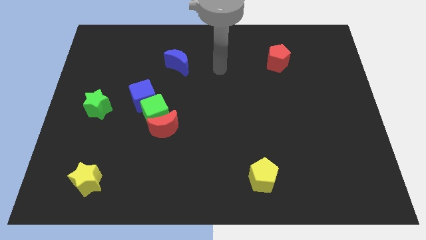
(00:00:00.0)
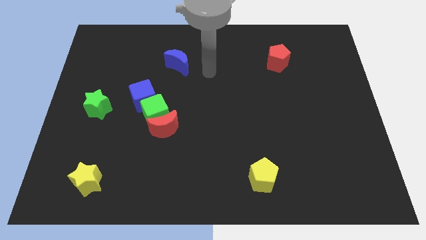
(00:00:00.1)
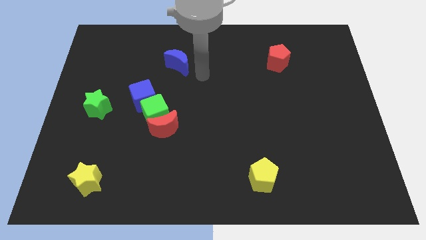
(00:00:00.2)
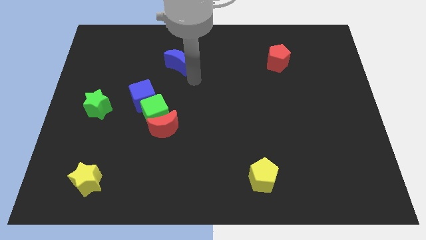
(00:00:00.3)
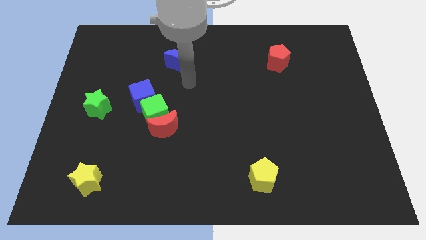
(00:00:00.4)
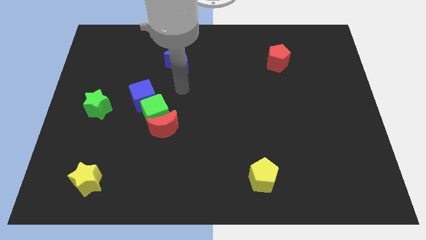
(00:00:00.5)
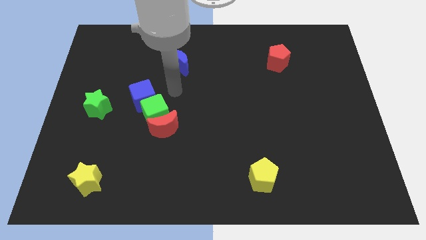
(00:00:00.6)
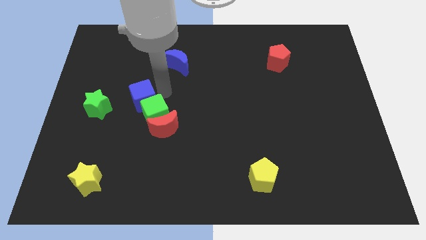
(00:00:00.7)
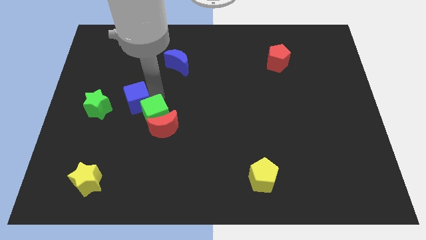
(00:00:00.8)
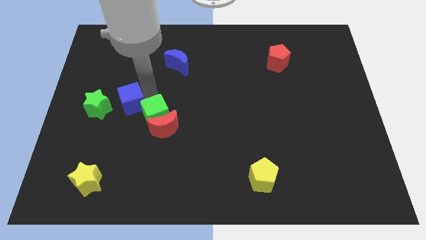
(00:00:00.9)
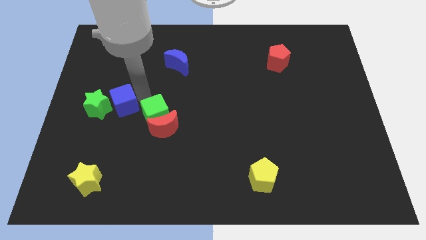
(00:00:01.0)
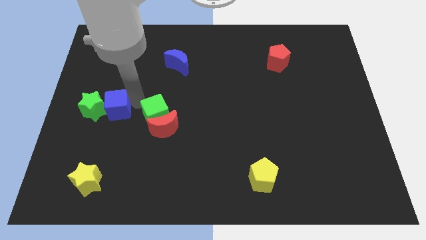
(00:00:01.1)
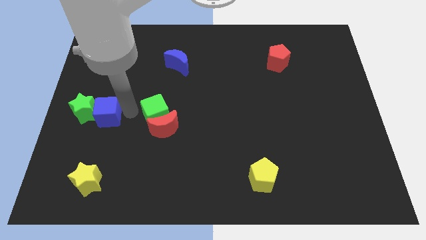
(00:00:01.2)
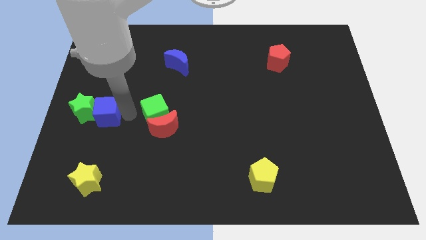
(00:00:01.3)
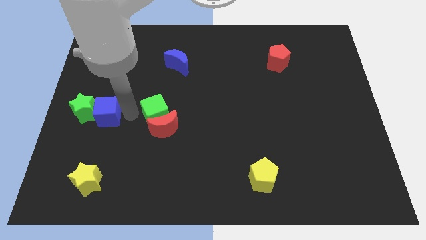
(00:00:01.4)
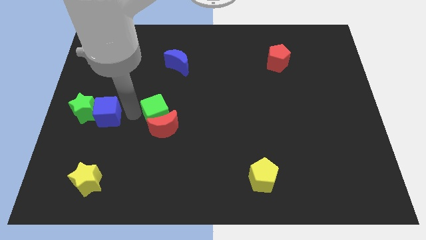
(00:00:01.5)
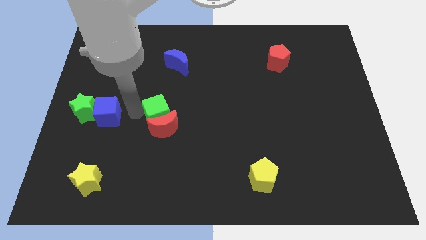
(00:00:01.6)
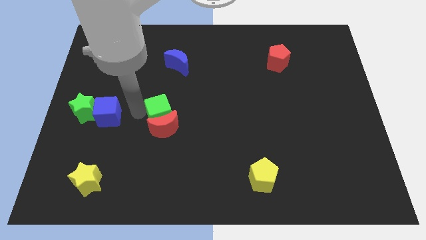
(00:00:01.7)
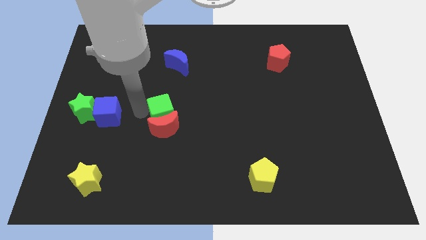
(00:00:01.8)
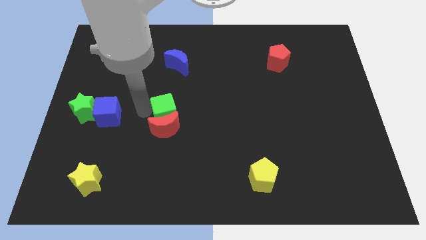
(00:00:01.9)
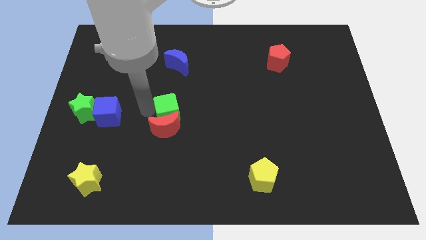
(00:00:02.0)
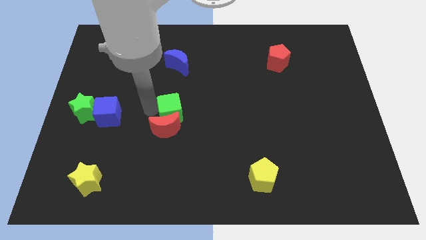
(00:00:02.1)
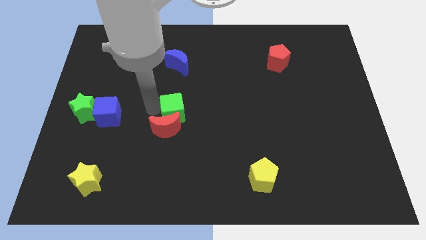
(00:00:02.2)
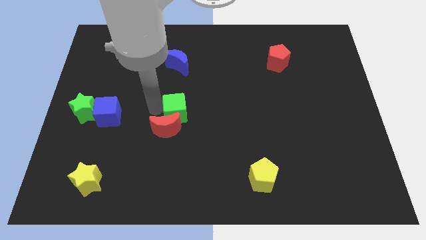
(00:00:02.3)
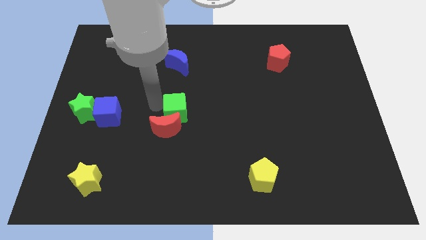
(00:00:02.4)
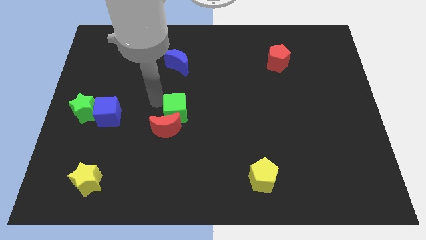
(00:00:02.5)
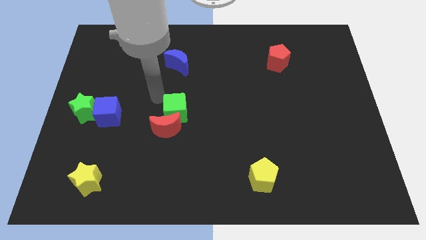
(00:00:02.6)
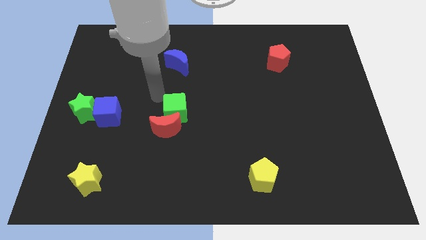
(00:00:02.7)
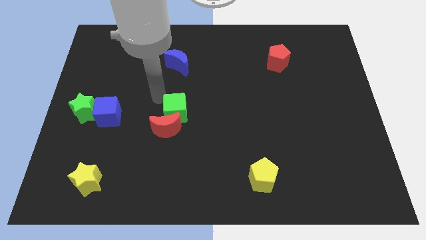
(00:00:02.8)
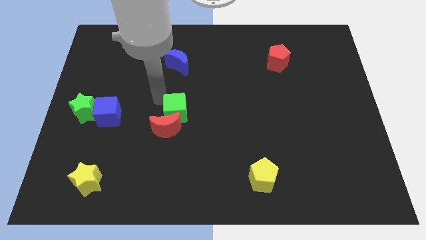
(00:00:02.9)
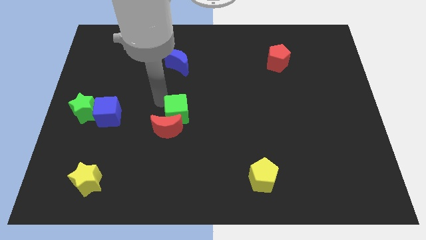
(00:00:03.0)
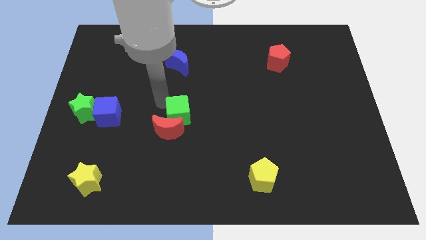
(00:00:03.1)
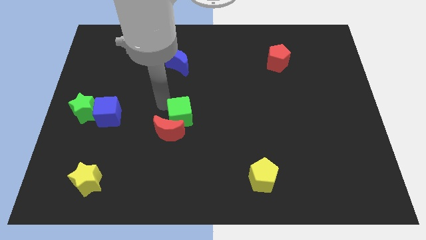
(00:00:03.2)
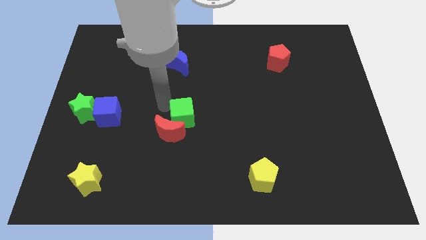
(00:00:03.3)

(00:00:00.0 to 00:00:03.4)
separate the green cube from the red moon and blue cube

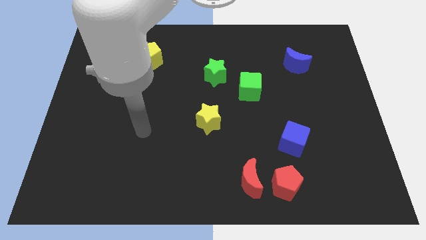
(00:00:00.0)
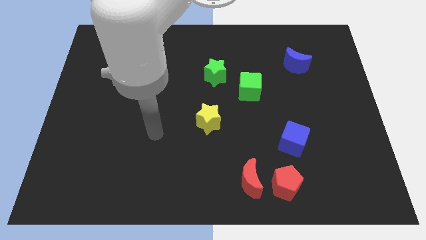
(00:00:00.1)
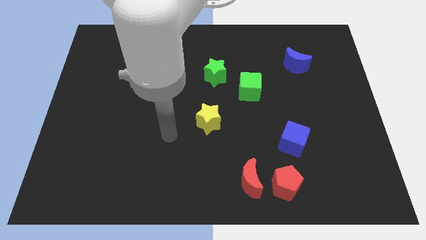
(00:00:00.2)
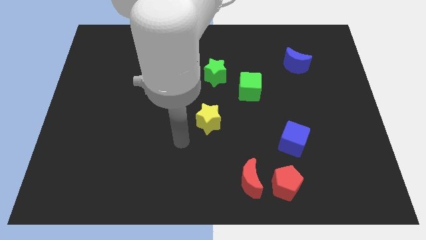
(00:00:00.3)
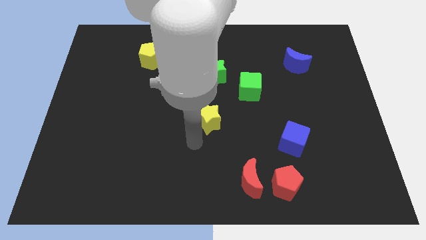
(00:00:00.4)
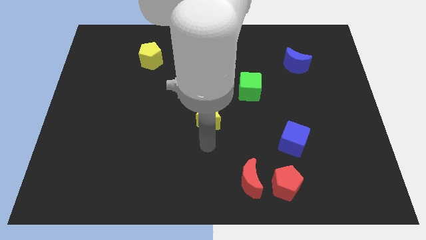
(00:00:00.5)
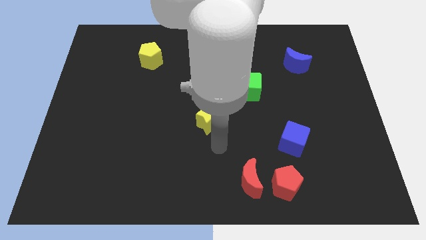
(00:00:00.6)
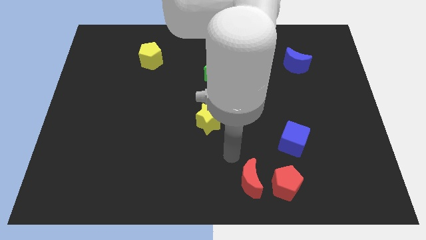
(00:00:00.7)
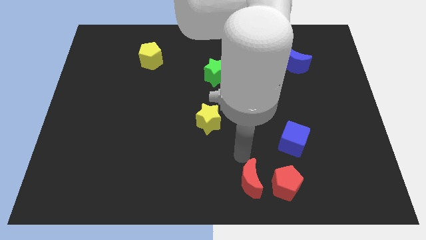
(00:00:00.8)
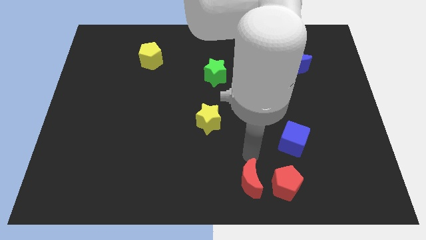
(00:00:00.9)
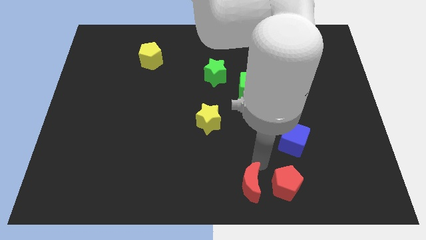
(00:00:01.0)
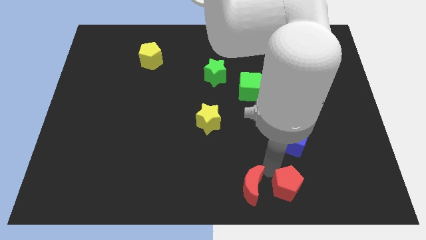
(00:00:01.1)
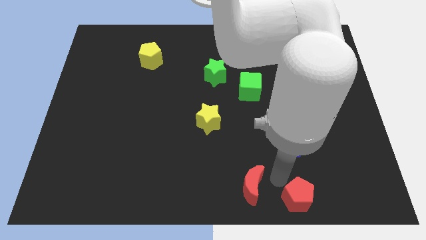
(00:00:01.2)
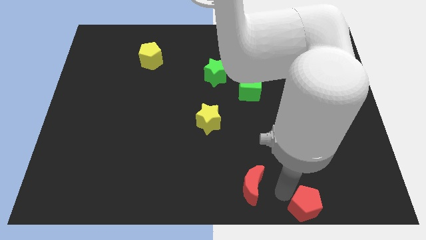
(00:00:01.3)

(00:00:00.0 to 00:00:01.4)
pull the red moon apart from the red pentagon

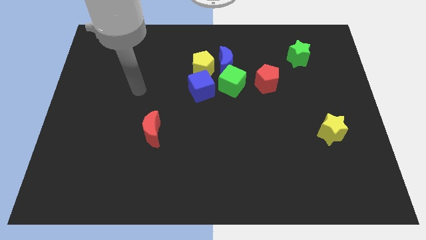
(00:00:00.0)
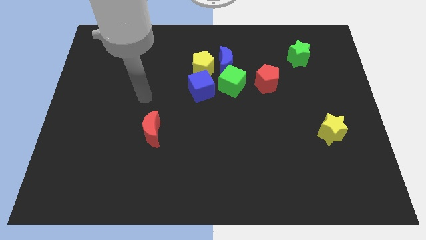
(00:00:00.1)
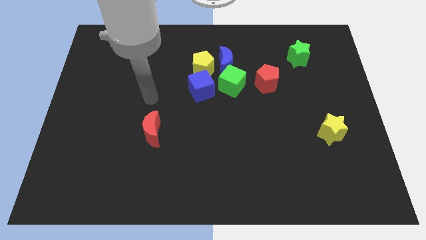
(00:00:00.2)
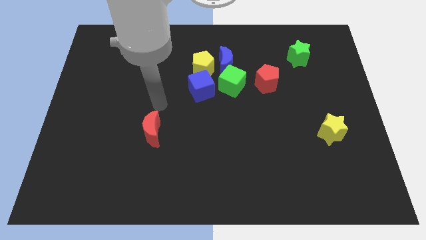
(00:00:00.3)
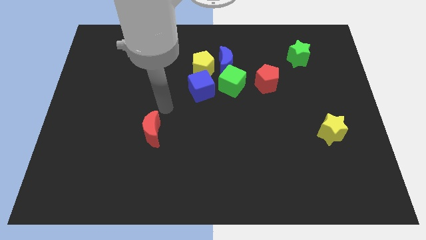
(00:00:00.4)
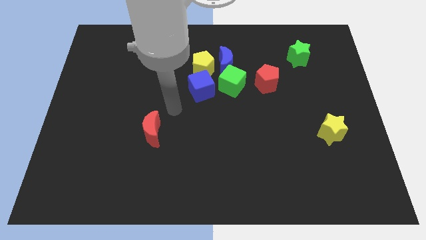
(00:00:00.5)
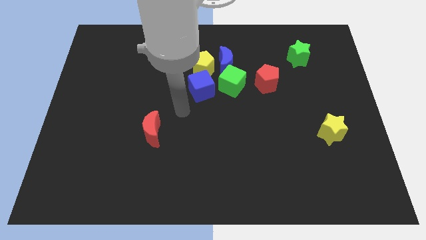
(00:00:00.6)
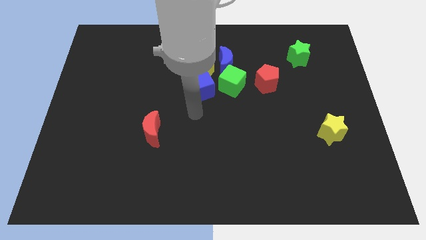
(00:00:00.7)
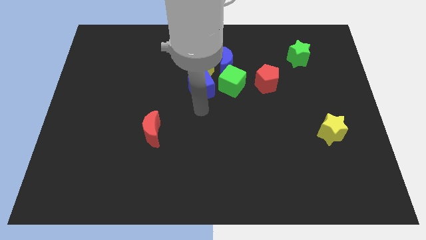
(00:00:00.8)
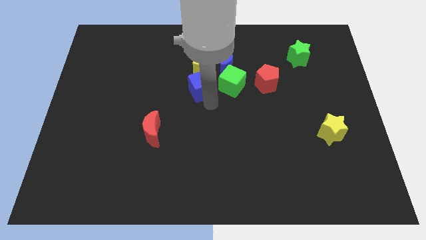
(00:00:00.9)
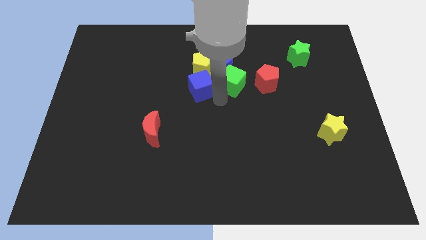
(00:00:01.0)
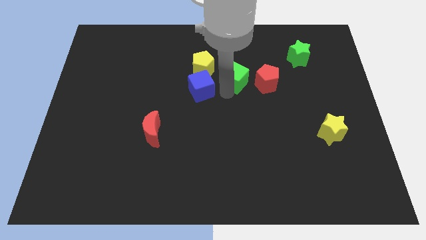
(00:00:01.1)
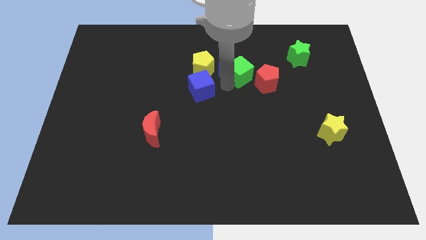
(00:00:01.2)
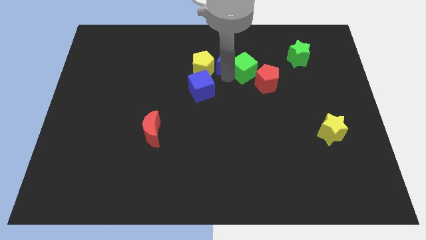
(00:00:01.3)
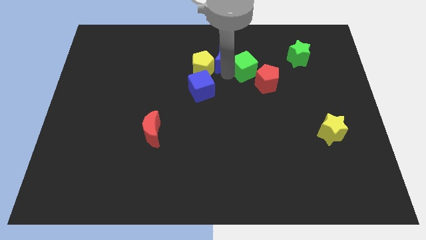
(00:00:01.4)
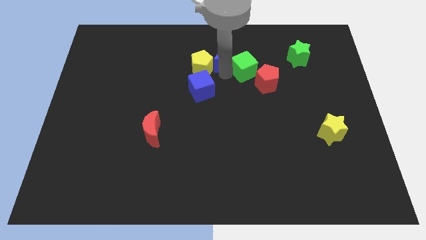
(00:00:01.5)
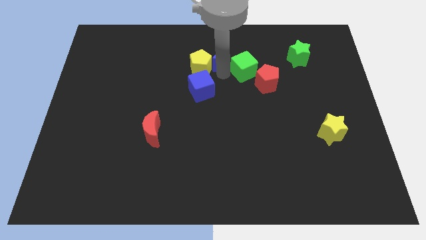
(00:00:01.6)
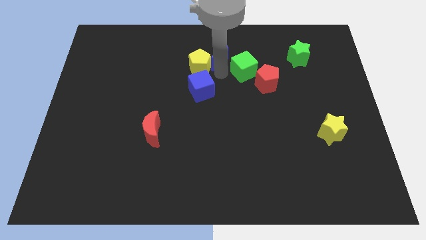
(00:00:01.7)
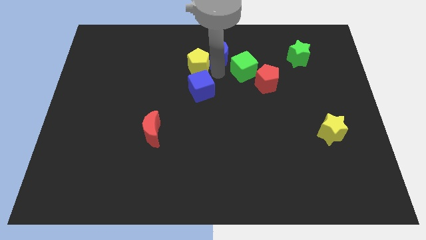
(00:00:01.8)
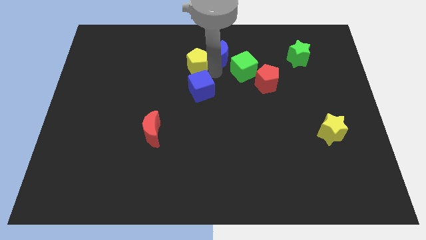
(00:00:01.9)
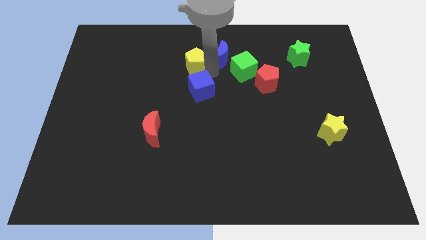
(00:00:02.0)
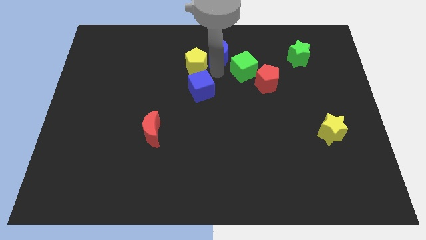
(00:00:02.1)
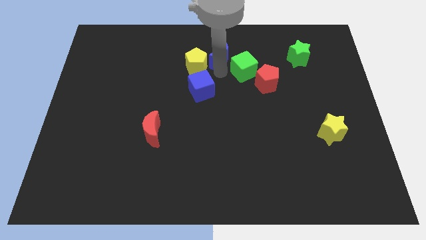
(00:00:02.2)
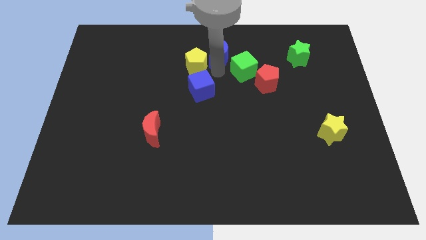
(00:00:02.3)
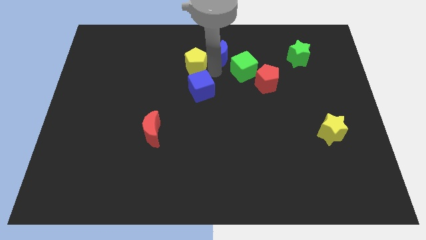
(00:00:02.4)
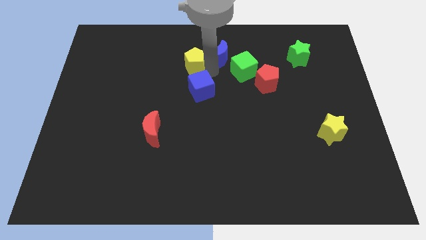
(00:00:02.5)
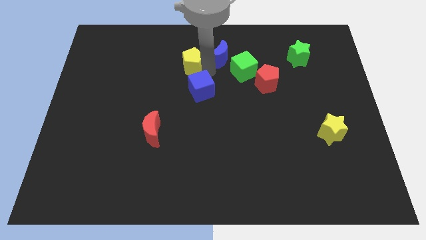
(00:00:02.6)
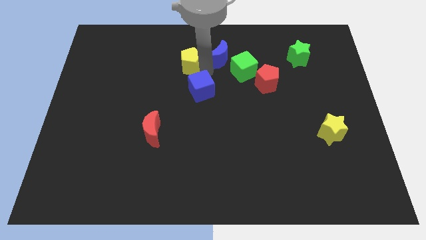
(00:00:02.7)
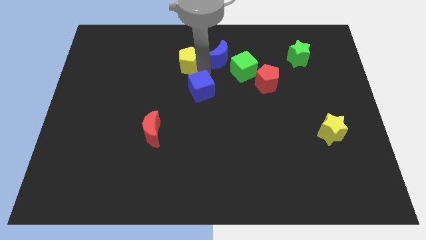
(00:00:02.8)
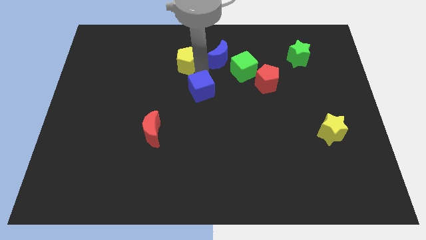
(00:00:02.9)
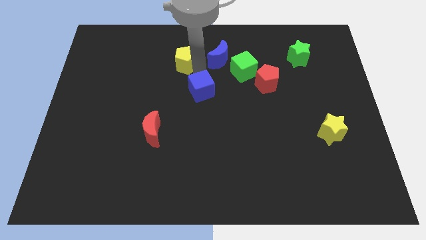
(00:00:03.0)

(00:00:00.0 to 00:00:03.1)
pull the yellow pentagon apart from the group of blocks

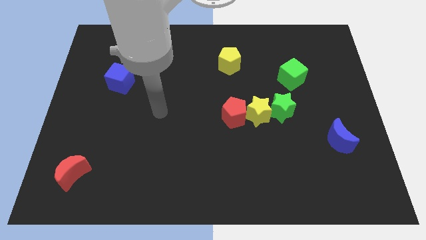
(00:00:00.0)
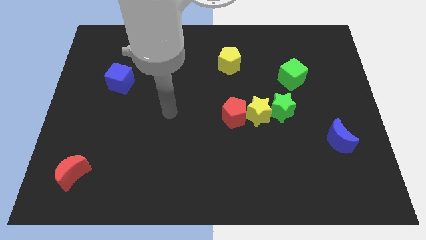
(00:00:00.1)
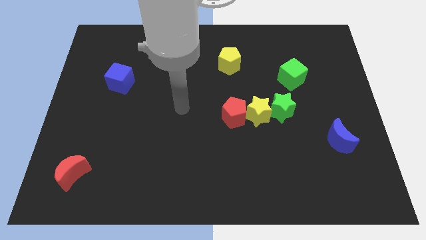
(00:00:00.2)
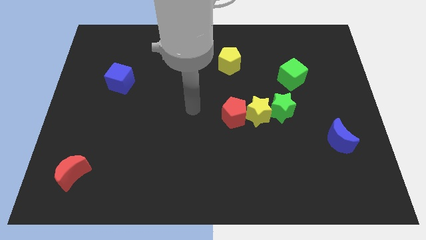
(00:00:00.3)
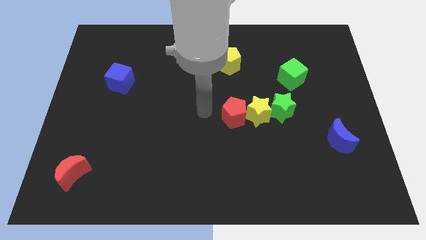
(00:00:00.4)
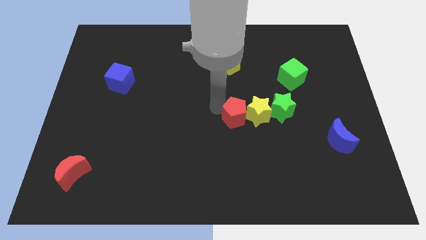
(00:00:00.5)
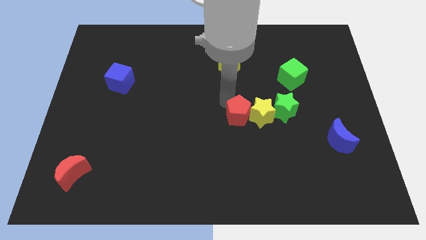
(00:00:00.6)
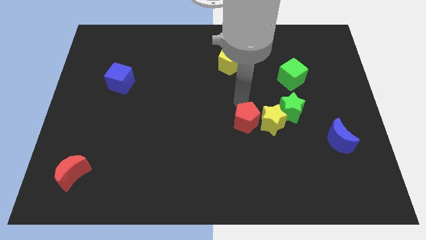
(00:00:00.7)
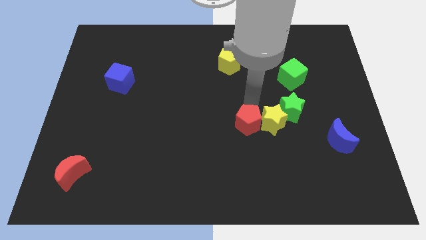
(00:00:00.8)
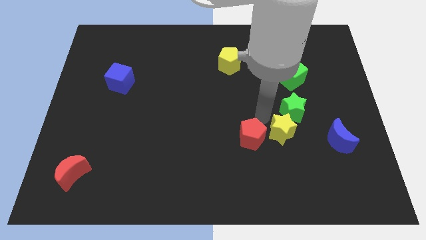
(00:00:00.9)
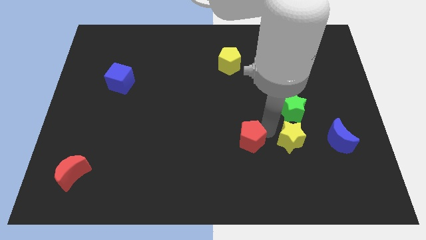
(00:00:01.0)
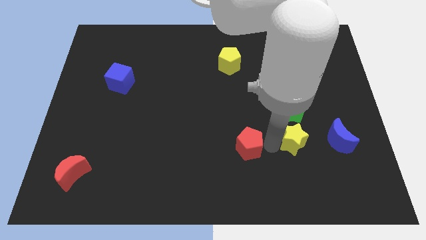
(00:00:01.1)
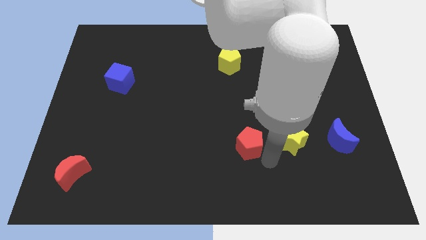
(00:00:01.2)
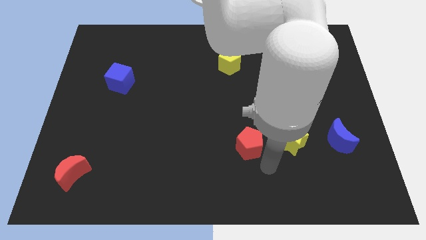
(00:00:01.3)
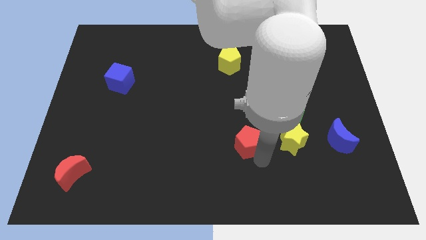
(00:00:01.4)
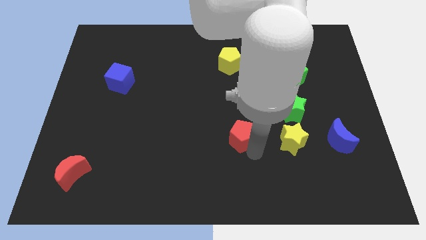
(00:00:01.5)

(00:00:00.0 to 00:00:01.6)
separate the red pentagon from the yellow star
